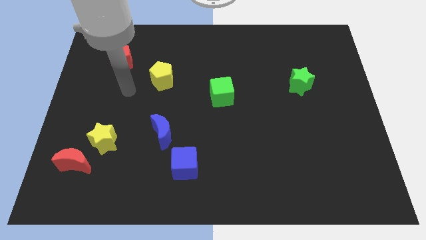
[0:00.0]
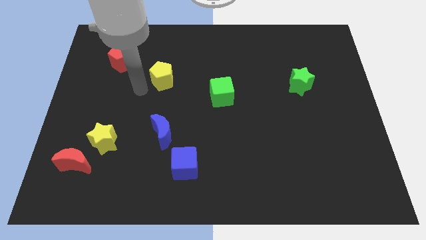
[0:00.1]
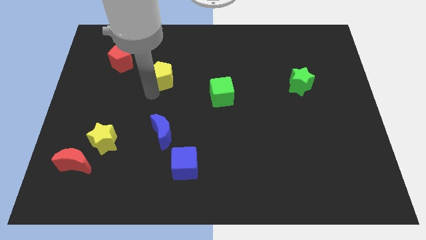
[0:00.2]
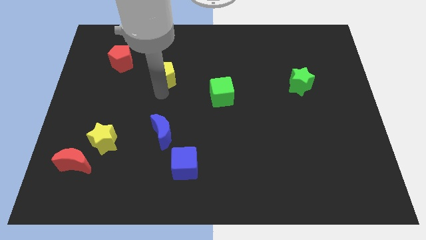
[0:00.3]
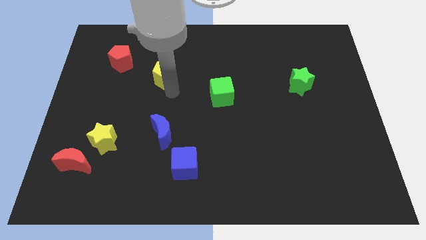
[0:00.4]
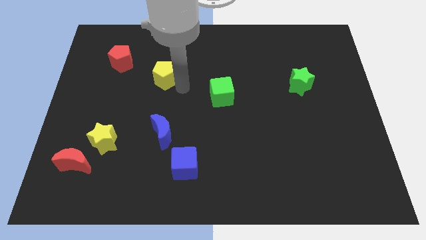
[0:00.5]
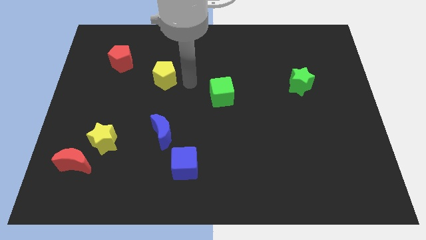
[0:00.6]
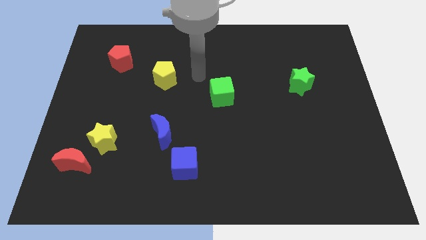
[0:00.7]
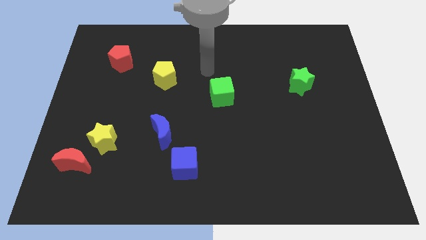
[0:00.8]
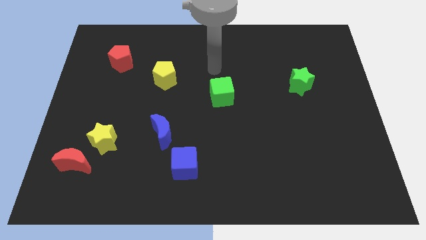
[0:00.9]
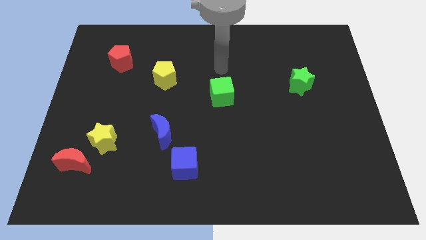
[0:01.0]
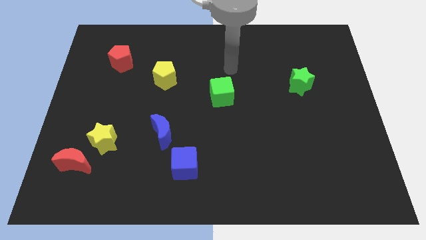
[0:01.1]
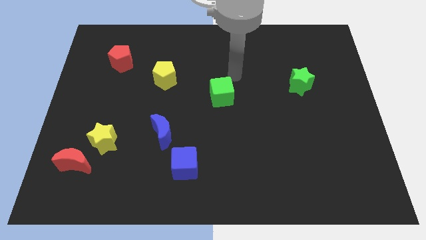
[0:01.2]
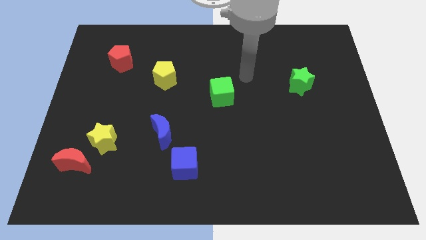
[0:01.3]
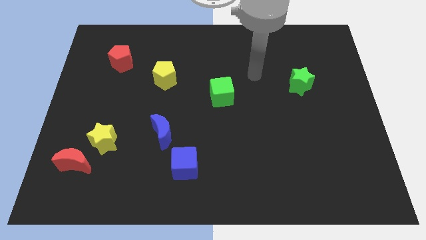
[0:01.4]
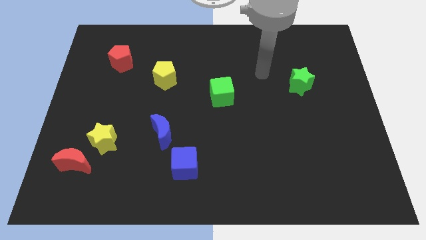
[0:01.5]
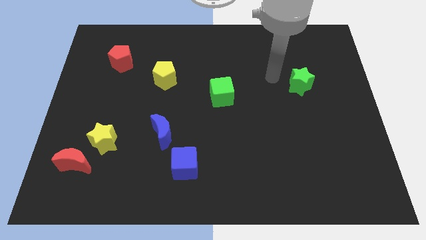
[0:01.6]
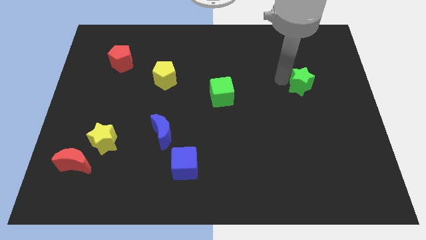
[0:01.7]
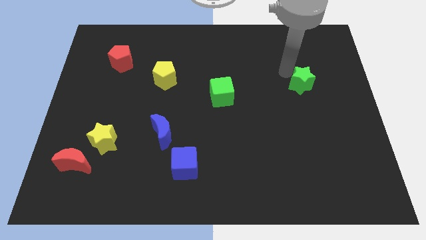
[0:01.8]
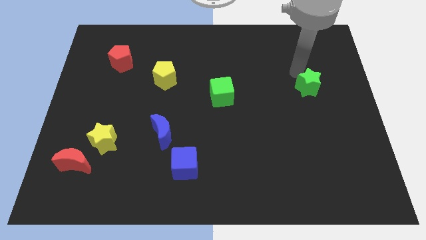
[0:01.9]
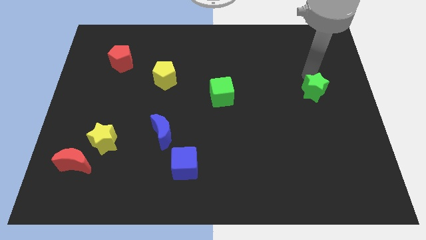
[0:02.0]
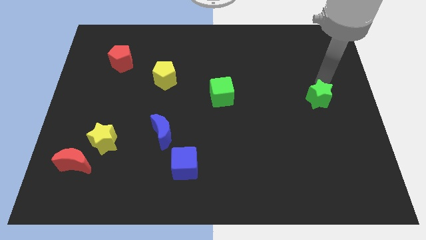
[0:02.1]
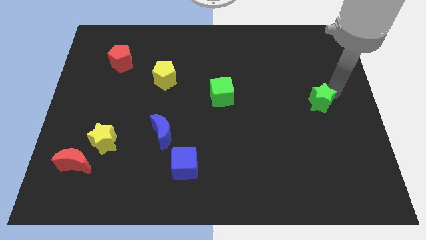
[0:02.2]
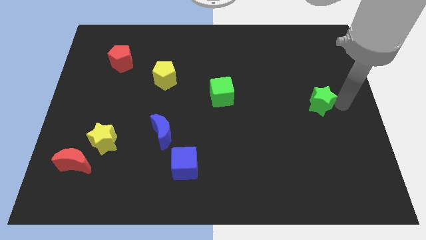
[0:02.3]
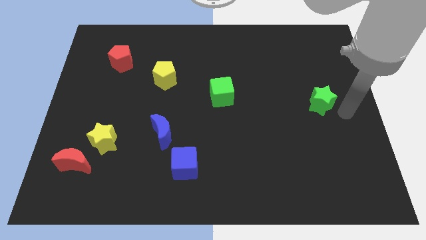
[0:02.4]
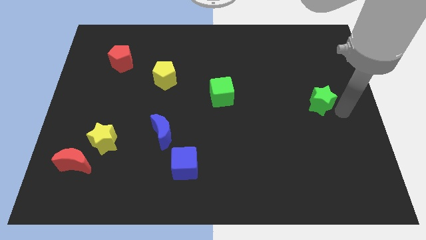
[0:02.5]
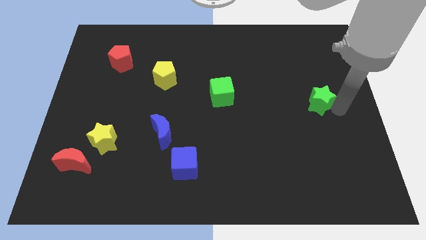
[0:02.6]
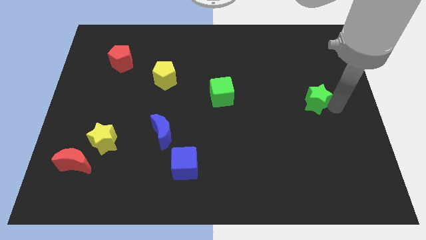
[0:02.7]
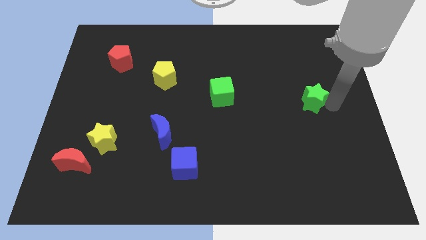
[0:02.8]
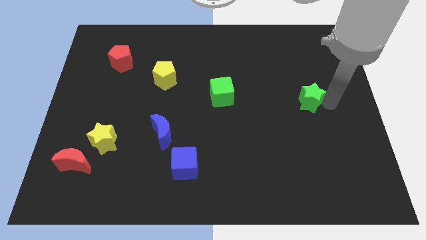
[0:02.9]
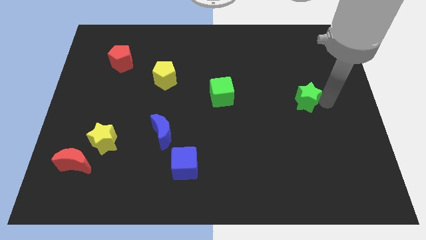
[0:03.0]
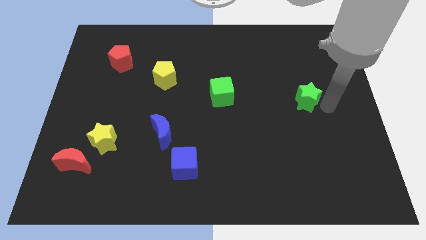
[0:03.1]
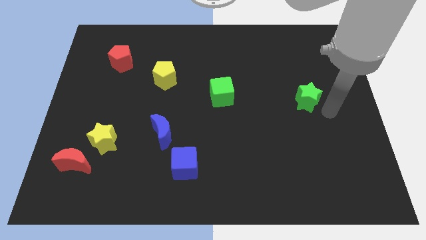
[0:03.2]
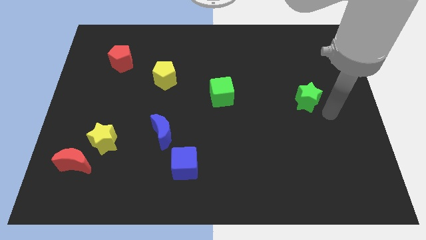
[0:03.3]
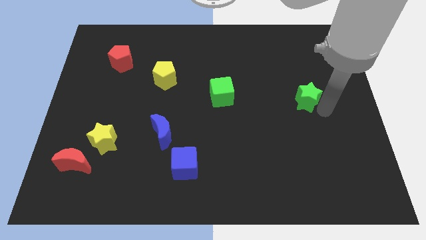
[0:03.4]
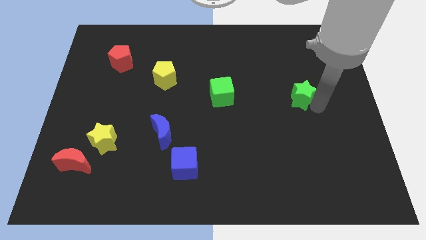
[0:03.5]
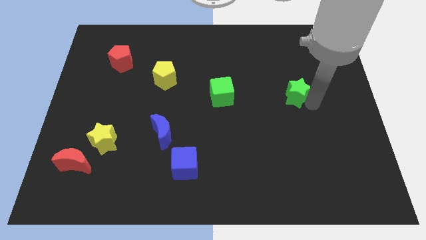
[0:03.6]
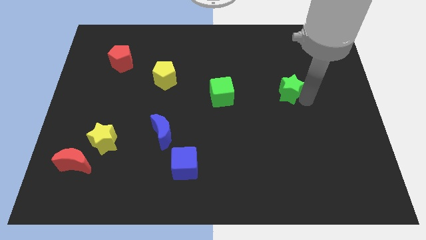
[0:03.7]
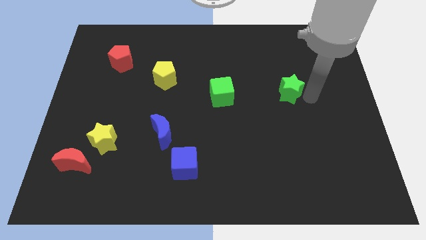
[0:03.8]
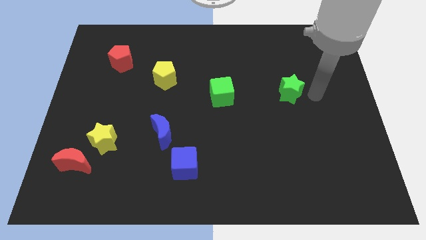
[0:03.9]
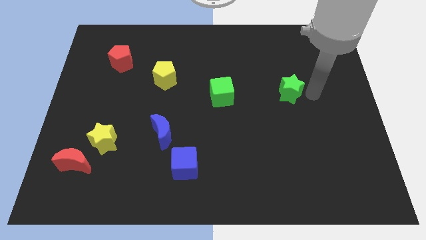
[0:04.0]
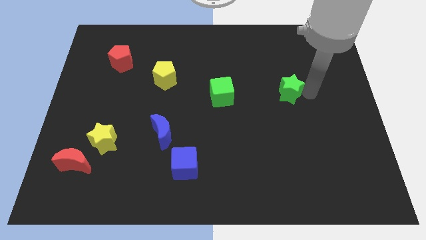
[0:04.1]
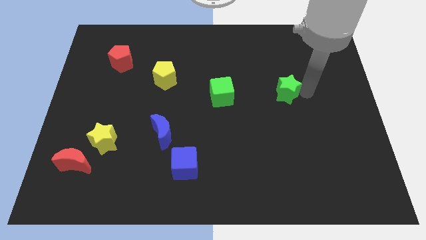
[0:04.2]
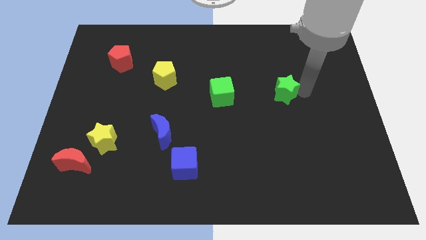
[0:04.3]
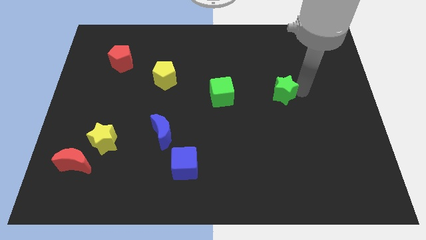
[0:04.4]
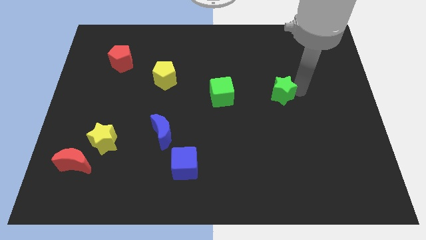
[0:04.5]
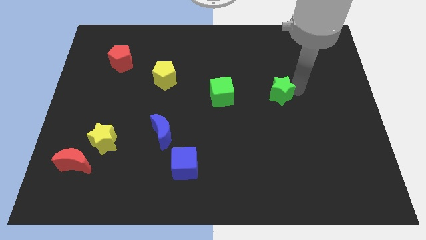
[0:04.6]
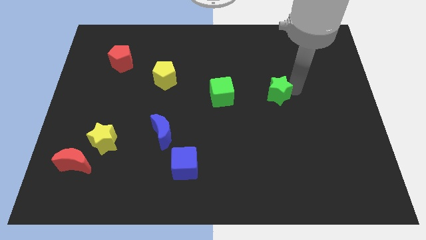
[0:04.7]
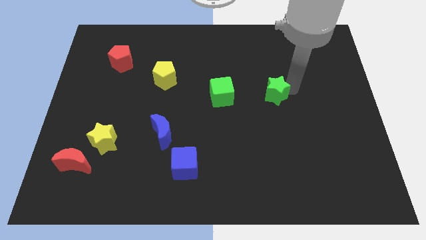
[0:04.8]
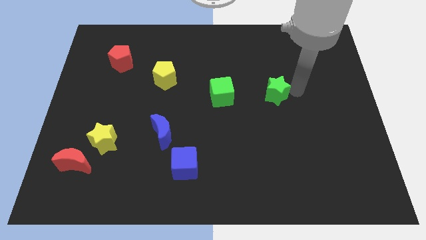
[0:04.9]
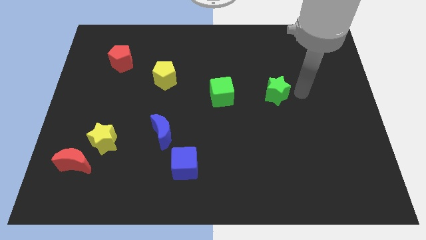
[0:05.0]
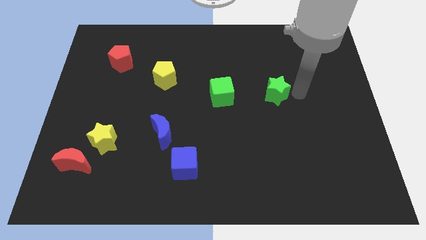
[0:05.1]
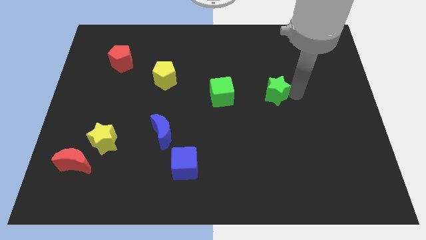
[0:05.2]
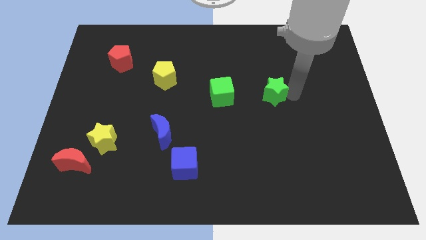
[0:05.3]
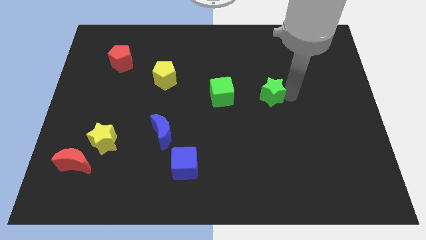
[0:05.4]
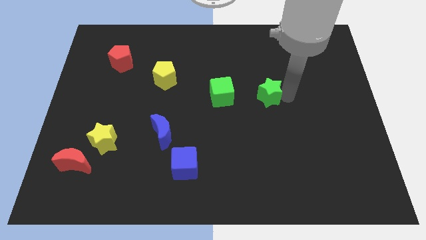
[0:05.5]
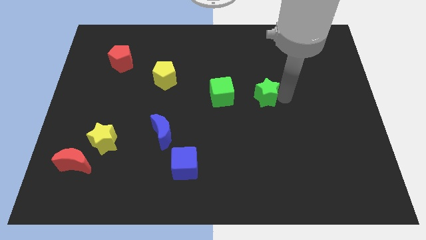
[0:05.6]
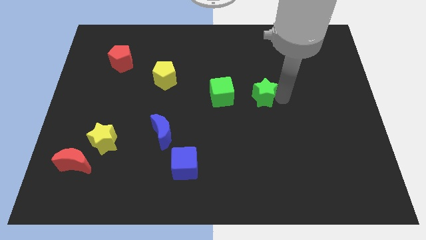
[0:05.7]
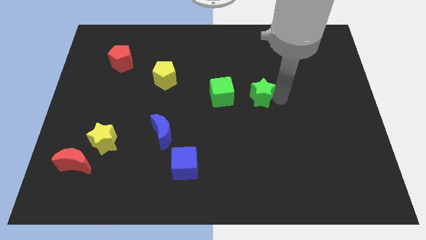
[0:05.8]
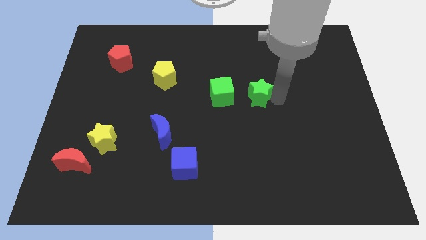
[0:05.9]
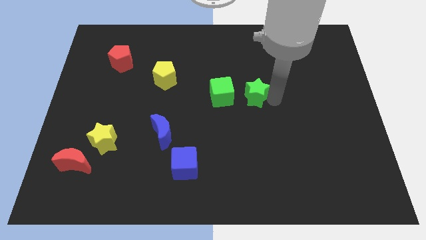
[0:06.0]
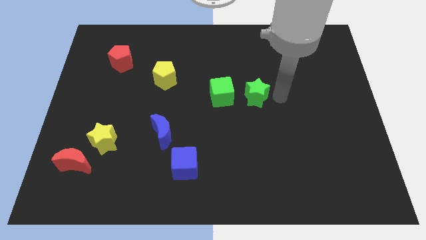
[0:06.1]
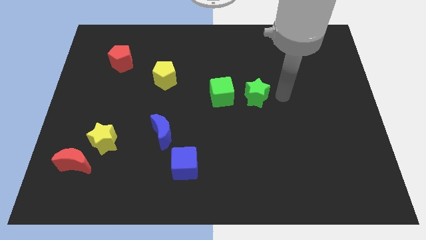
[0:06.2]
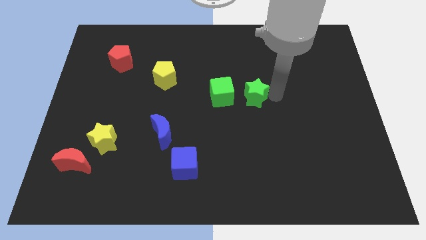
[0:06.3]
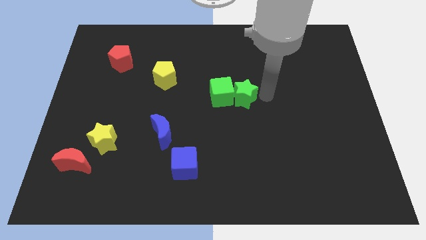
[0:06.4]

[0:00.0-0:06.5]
push the green star towards the green cube

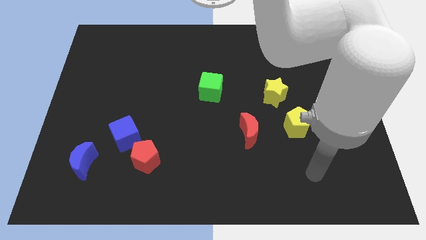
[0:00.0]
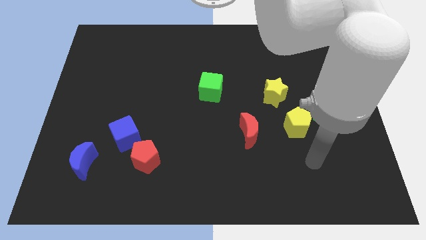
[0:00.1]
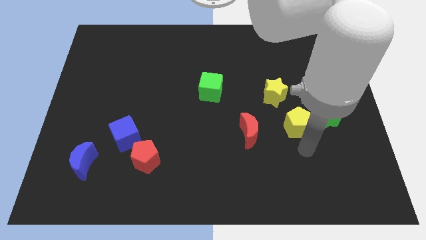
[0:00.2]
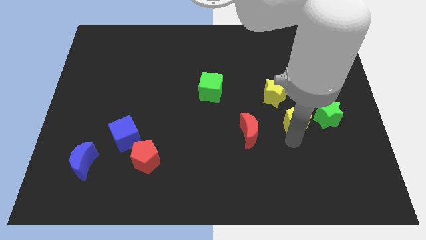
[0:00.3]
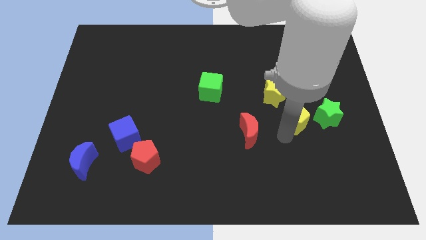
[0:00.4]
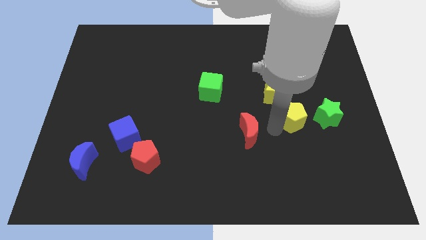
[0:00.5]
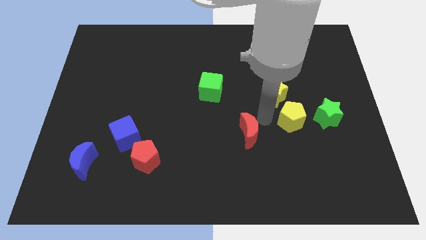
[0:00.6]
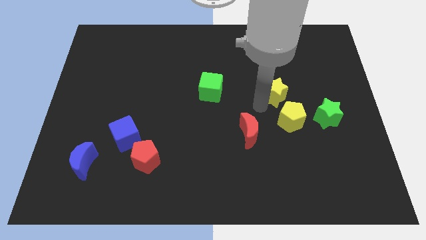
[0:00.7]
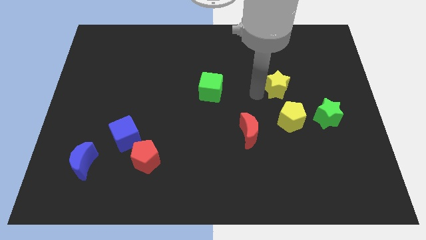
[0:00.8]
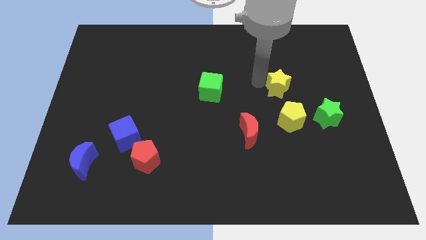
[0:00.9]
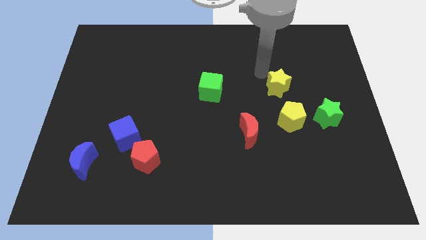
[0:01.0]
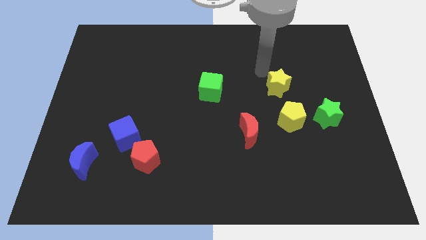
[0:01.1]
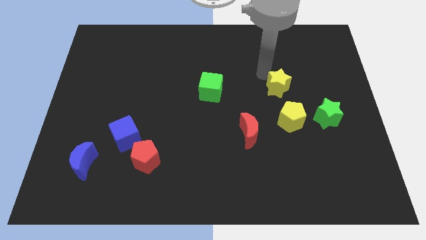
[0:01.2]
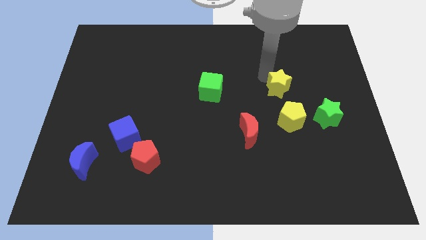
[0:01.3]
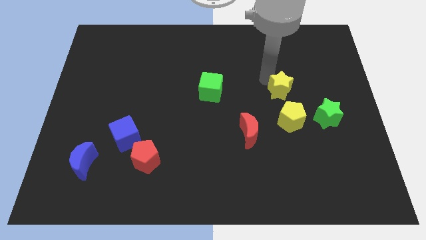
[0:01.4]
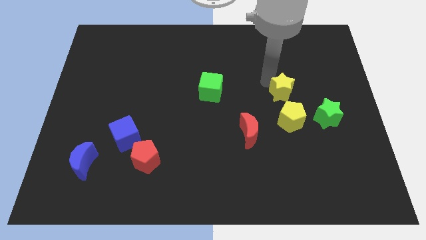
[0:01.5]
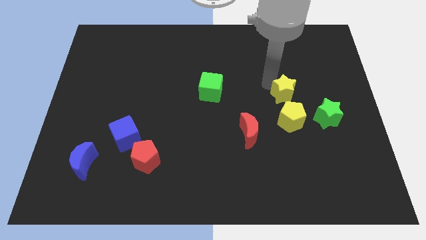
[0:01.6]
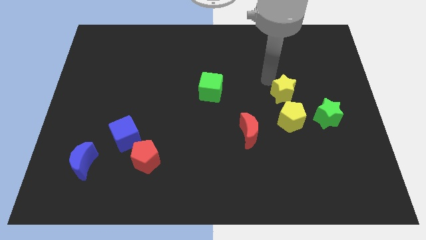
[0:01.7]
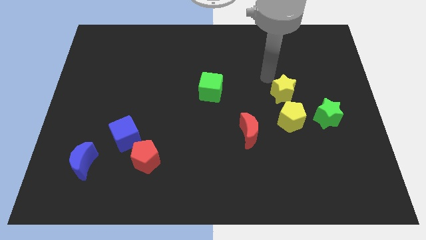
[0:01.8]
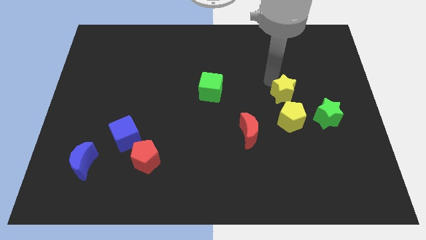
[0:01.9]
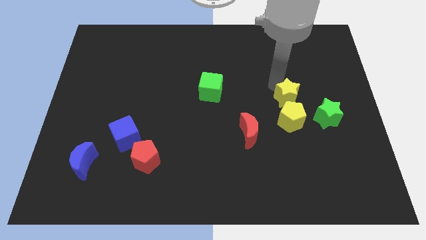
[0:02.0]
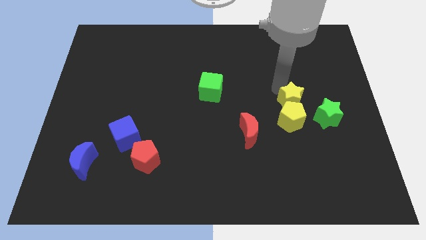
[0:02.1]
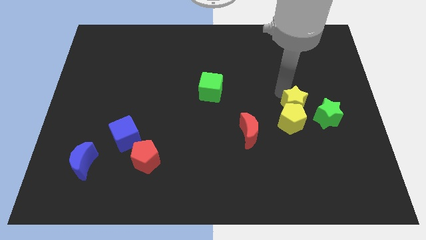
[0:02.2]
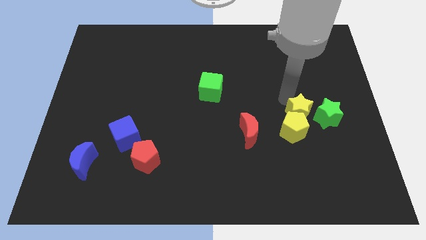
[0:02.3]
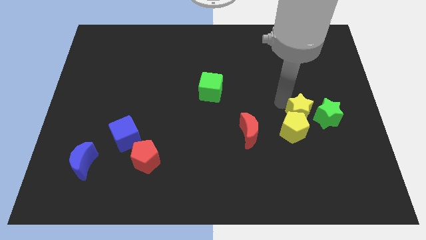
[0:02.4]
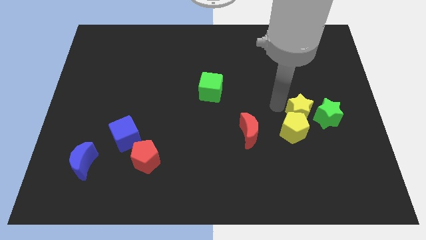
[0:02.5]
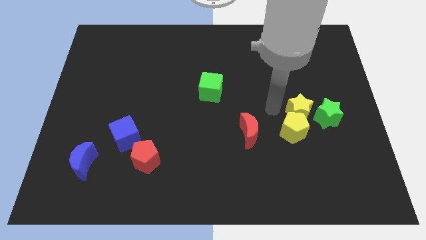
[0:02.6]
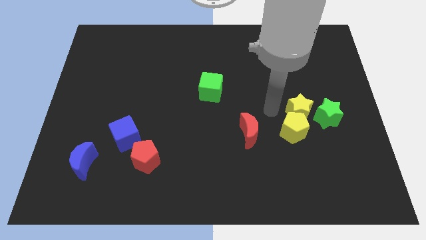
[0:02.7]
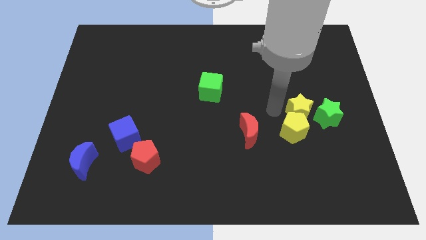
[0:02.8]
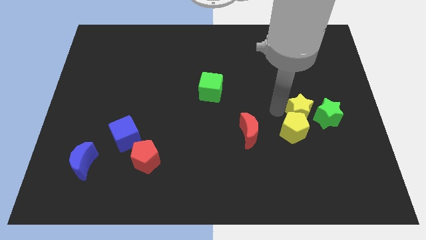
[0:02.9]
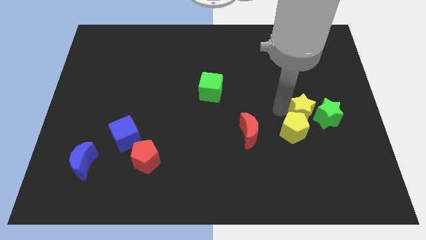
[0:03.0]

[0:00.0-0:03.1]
slide the yellow star to the green star
